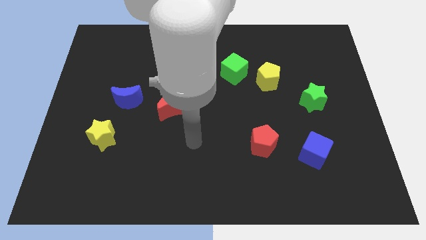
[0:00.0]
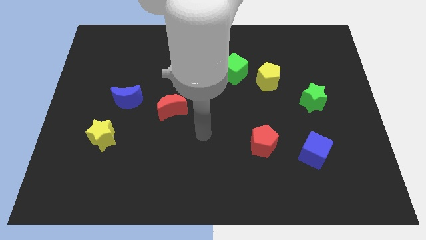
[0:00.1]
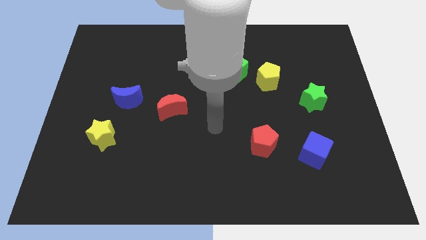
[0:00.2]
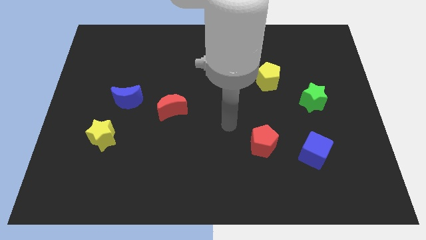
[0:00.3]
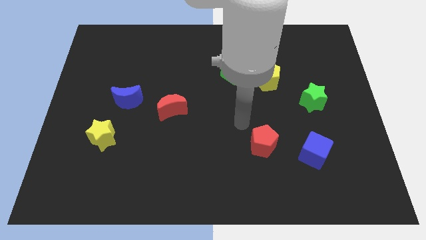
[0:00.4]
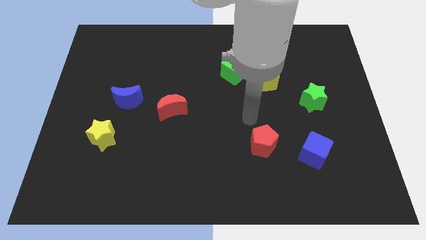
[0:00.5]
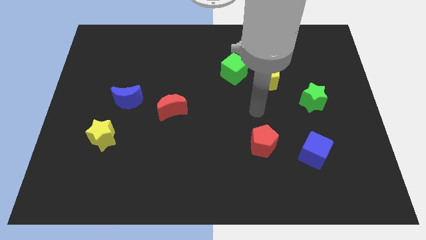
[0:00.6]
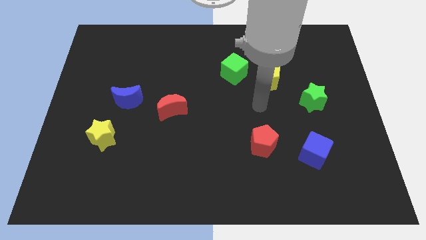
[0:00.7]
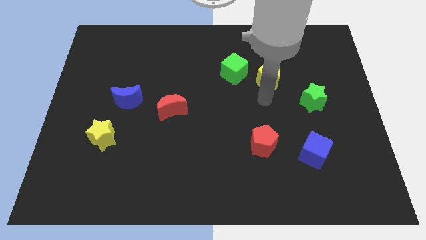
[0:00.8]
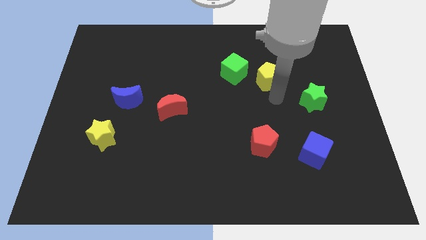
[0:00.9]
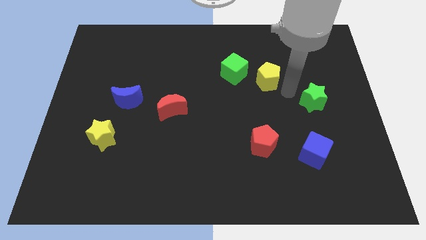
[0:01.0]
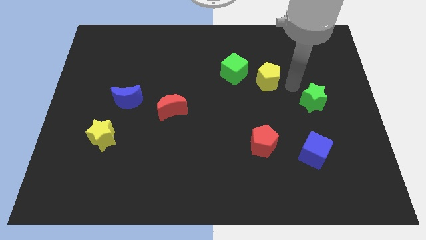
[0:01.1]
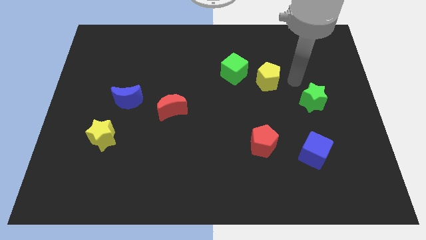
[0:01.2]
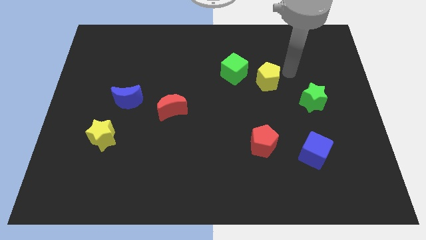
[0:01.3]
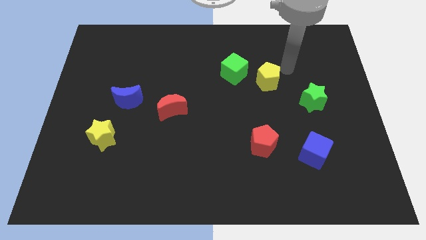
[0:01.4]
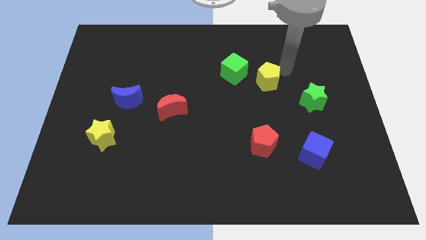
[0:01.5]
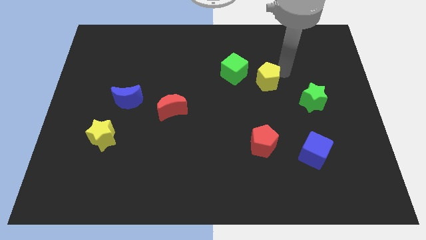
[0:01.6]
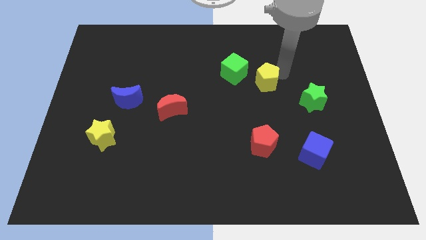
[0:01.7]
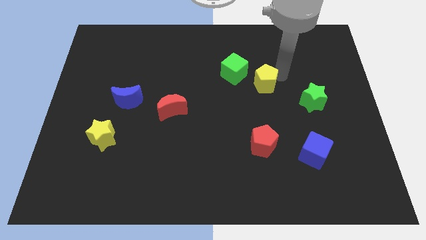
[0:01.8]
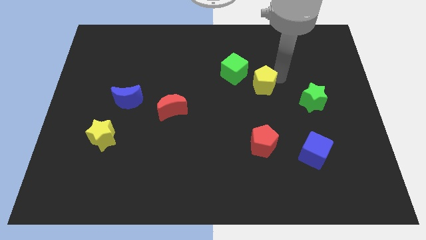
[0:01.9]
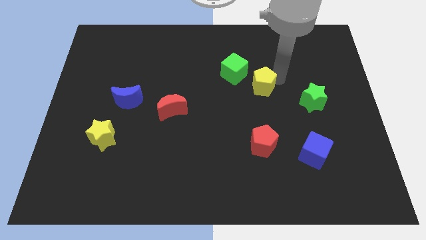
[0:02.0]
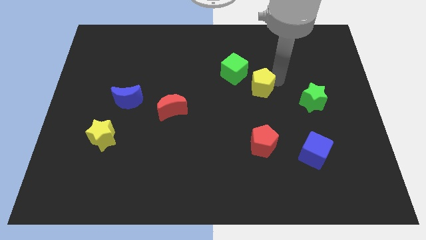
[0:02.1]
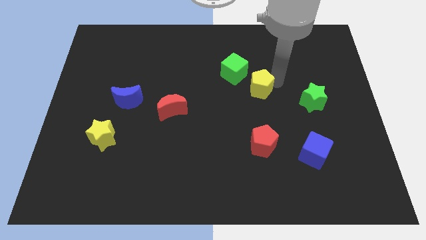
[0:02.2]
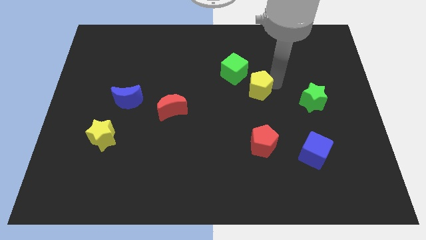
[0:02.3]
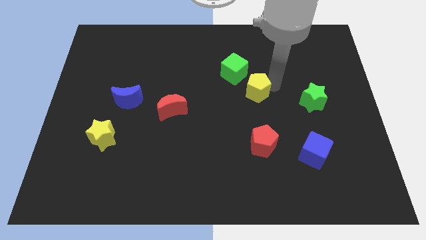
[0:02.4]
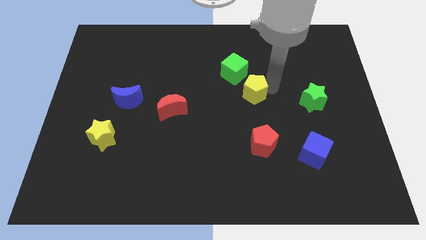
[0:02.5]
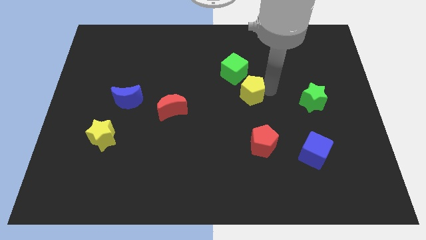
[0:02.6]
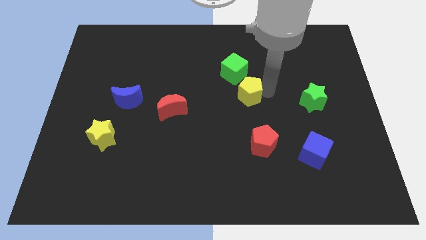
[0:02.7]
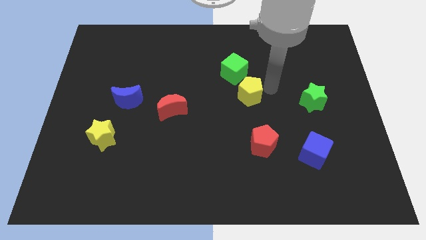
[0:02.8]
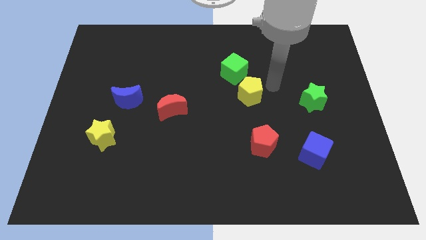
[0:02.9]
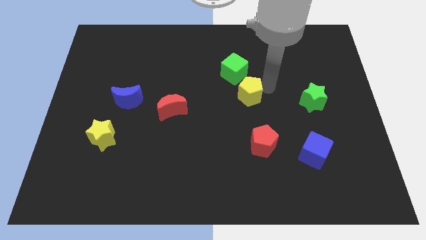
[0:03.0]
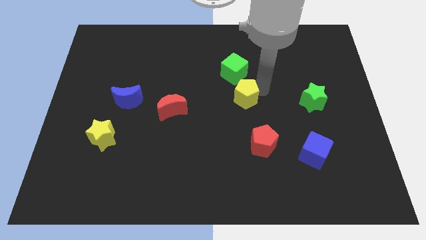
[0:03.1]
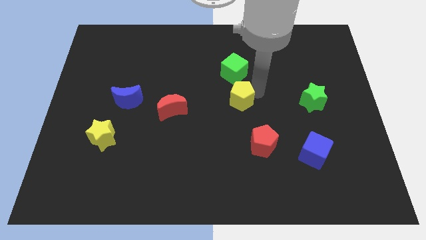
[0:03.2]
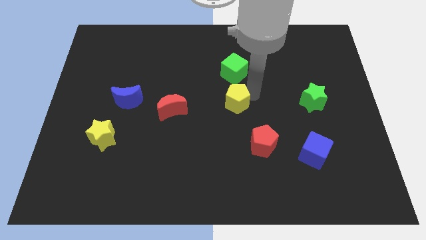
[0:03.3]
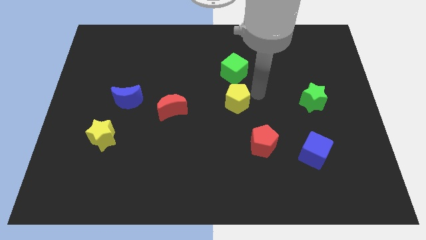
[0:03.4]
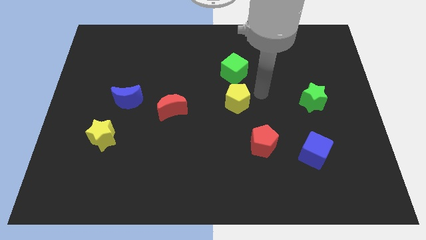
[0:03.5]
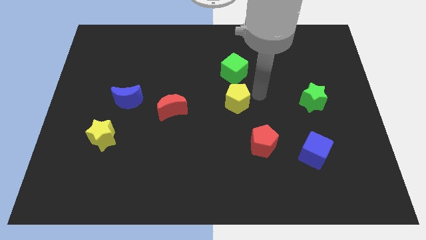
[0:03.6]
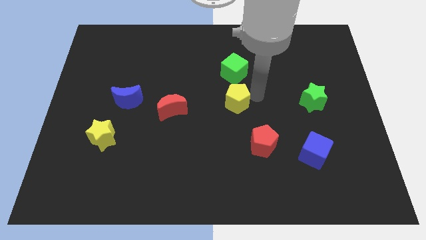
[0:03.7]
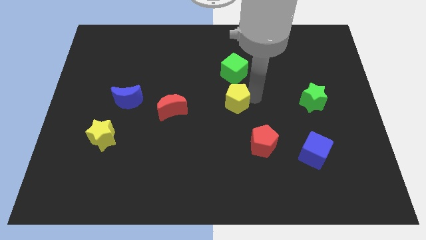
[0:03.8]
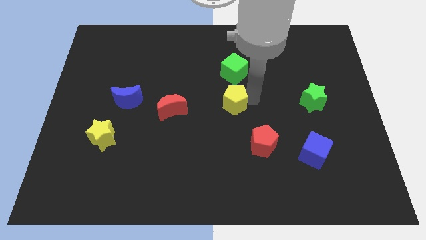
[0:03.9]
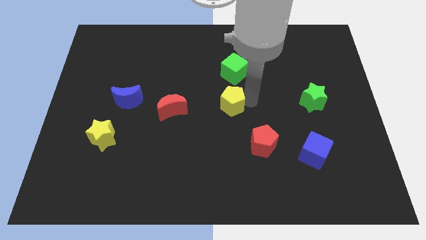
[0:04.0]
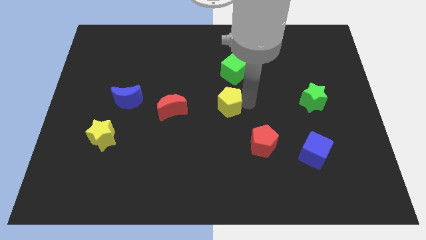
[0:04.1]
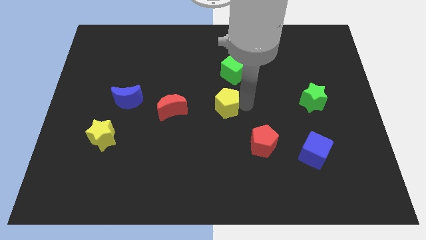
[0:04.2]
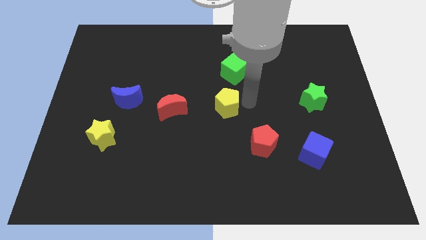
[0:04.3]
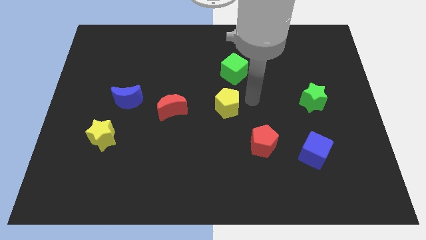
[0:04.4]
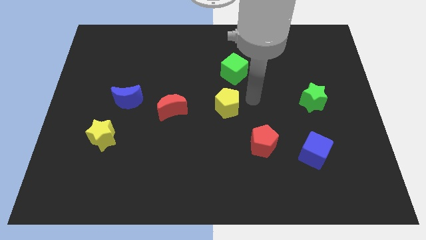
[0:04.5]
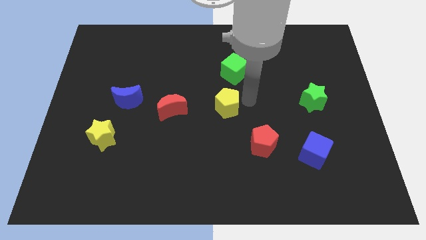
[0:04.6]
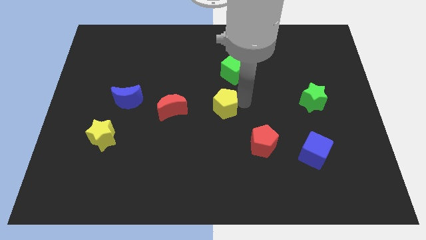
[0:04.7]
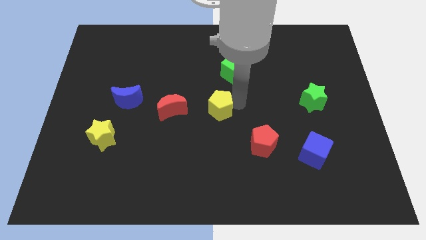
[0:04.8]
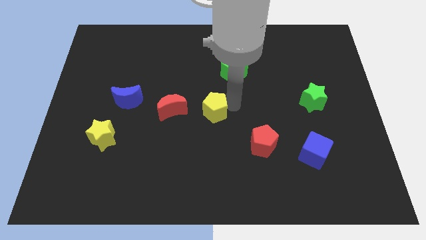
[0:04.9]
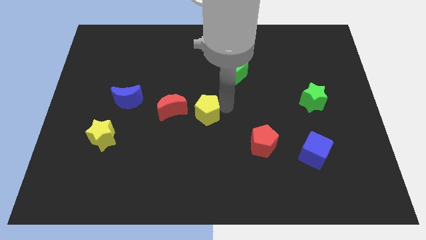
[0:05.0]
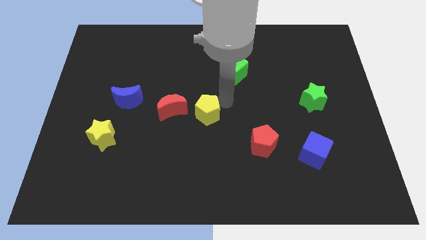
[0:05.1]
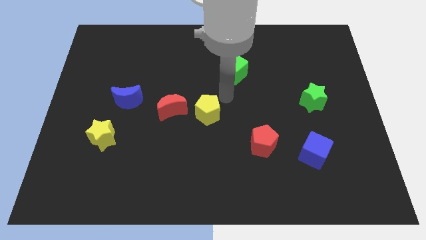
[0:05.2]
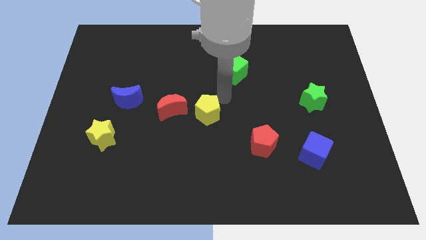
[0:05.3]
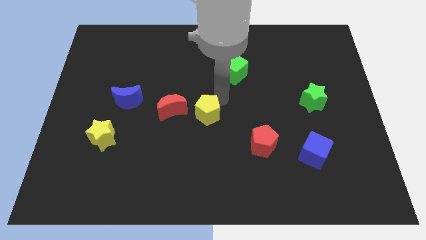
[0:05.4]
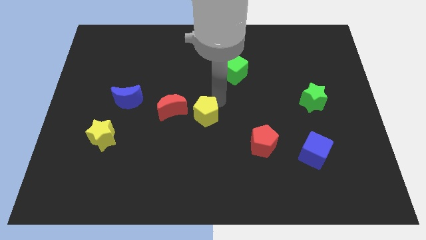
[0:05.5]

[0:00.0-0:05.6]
put the yellow pentagon to the bottom right of the red moon

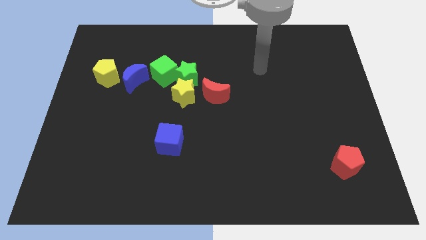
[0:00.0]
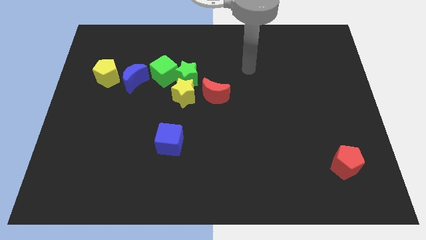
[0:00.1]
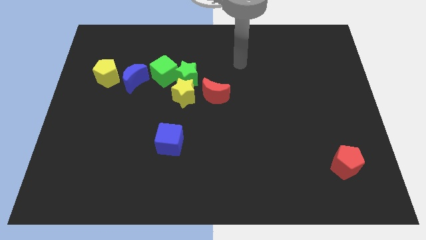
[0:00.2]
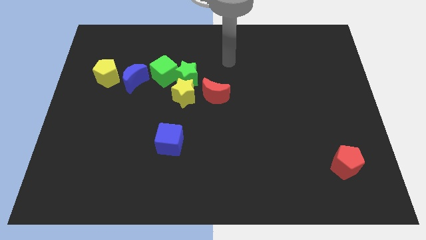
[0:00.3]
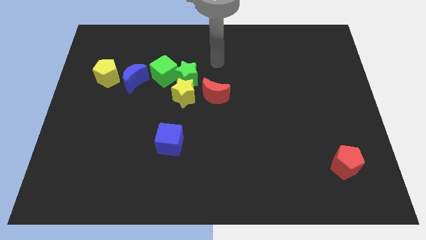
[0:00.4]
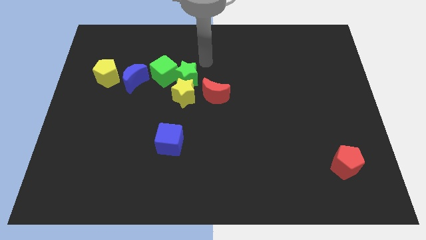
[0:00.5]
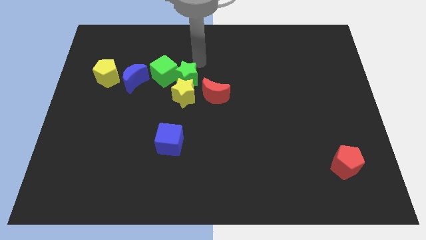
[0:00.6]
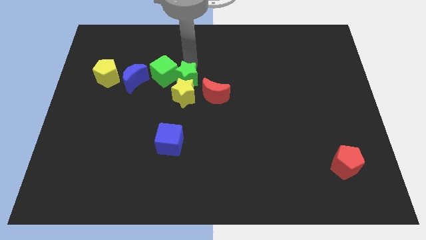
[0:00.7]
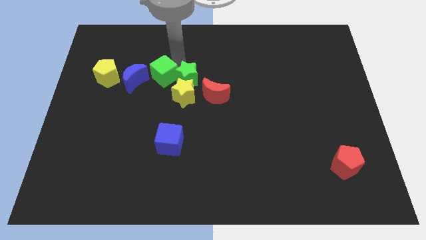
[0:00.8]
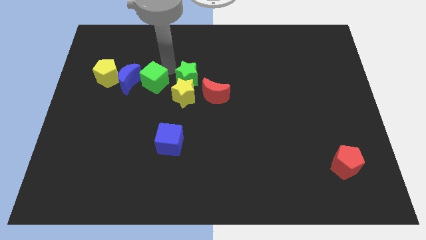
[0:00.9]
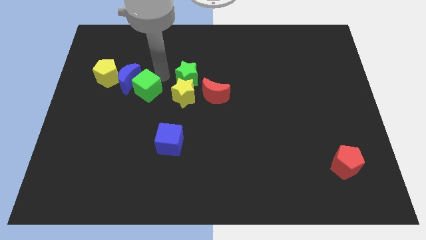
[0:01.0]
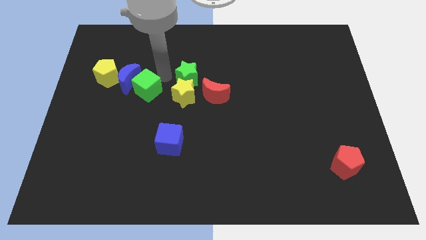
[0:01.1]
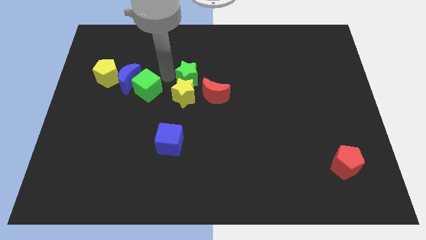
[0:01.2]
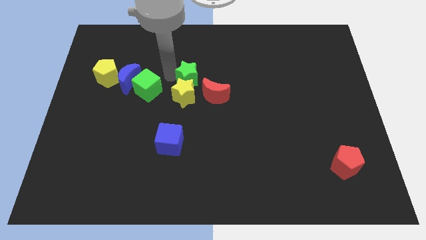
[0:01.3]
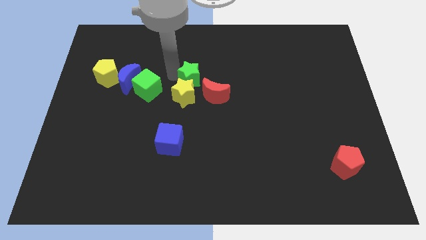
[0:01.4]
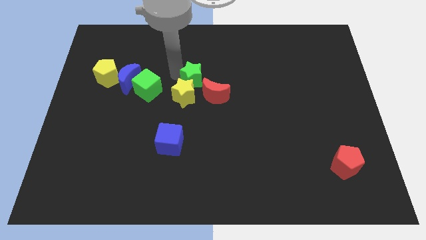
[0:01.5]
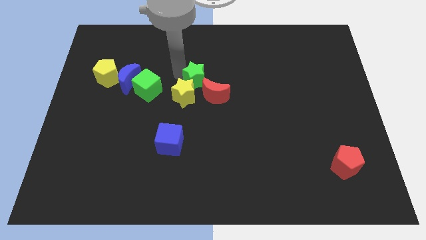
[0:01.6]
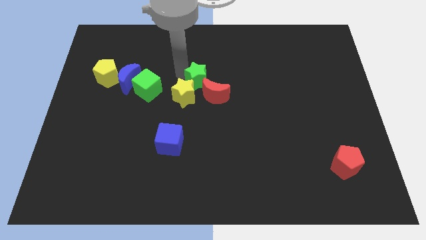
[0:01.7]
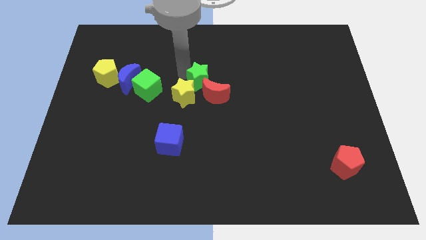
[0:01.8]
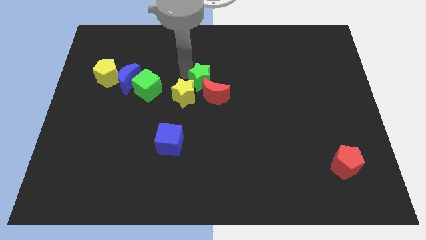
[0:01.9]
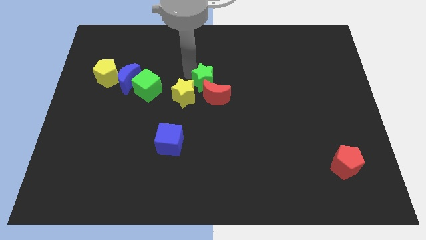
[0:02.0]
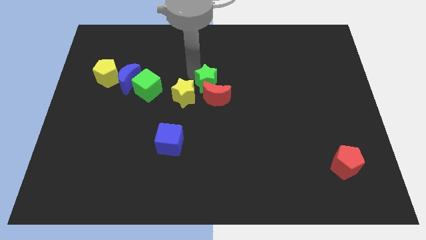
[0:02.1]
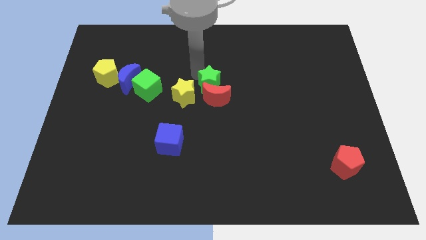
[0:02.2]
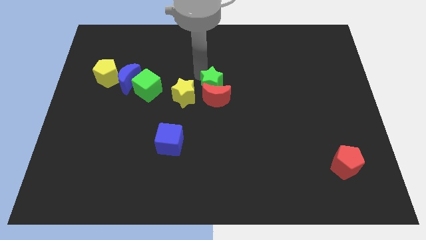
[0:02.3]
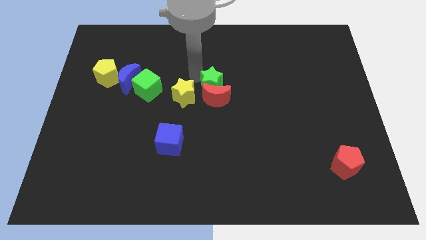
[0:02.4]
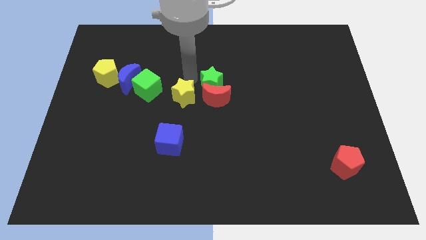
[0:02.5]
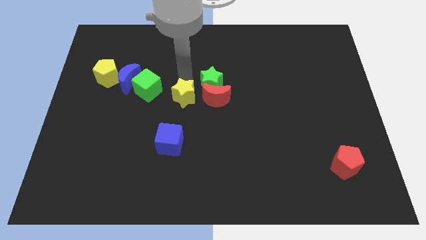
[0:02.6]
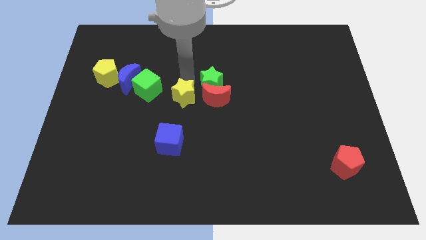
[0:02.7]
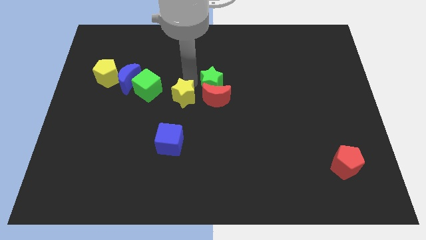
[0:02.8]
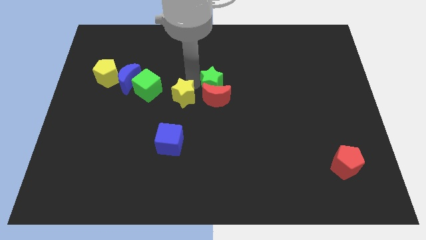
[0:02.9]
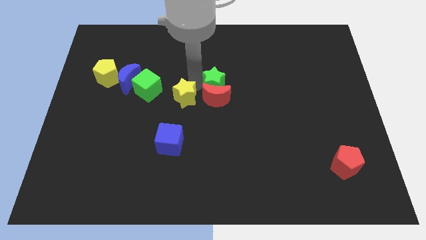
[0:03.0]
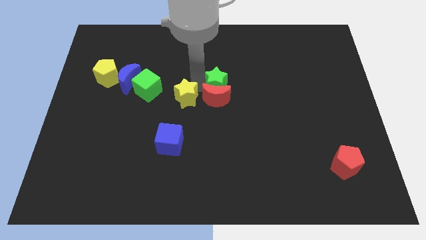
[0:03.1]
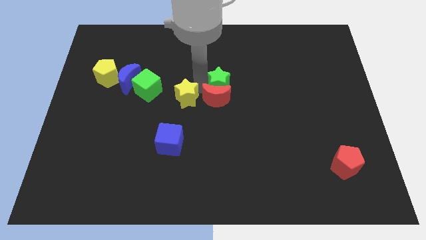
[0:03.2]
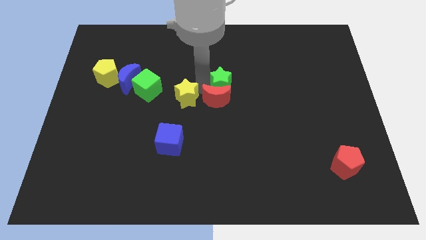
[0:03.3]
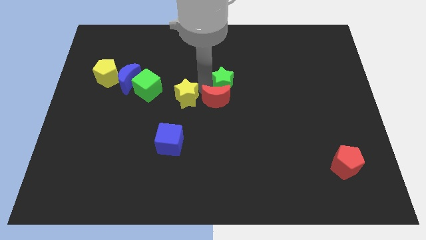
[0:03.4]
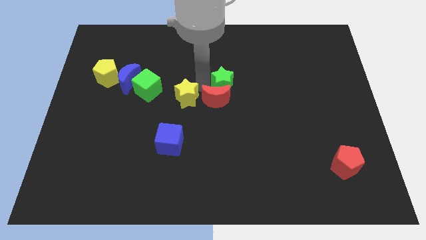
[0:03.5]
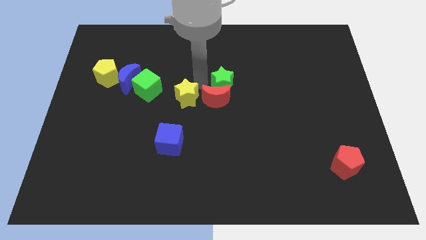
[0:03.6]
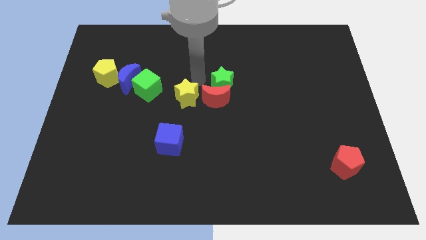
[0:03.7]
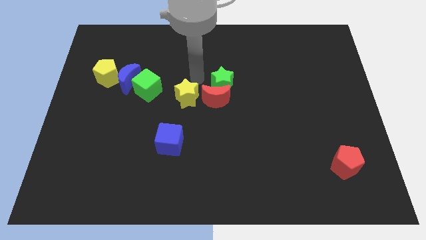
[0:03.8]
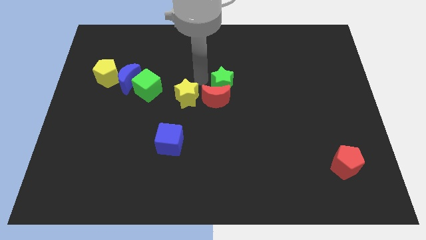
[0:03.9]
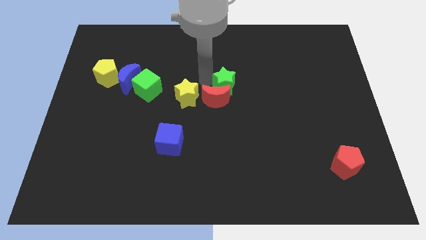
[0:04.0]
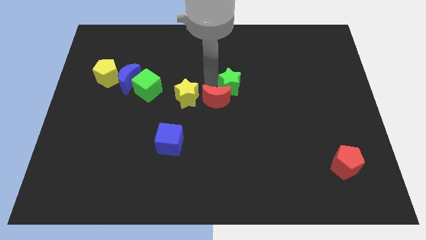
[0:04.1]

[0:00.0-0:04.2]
move the green star just right of the red moon
